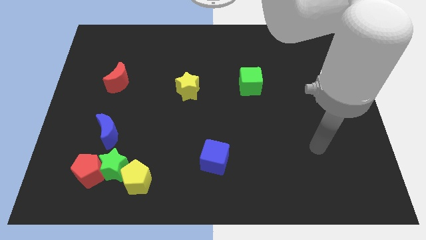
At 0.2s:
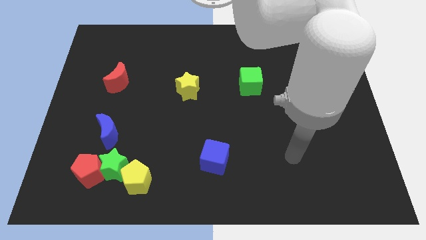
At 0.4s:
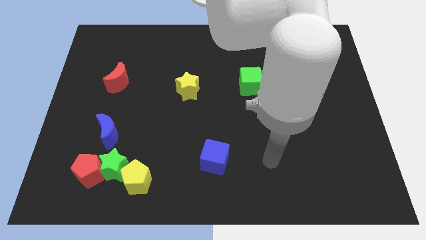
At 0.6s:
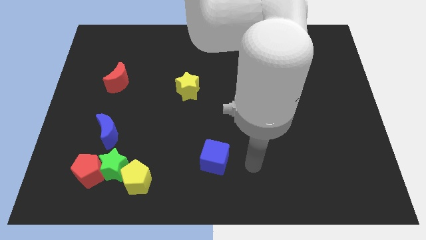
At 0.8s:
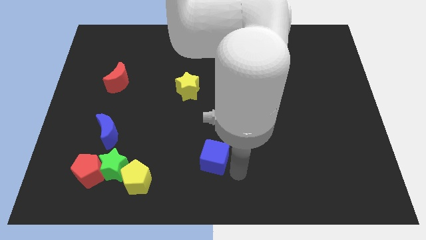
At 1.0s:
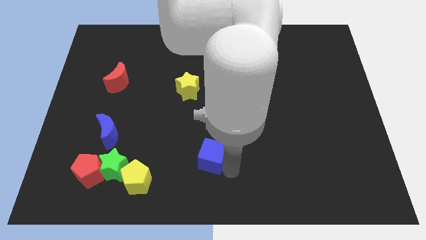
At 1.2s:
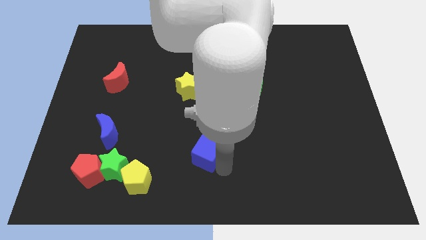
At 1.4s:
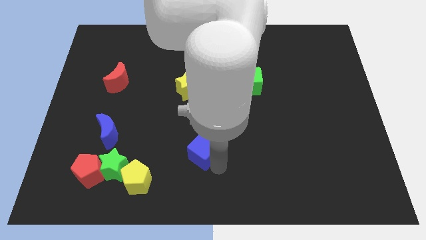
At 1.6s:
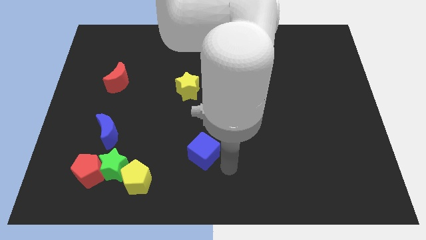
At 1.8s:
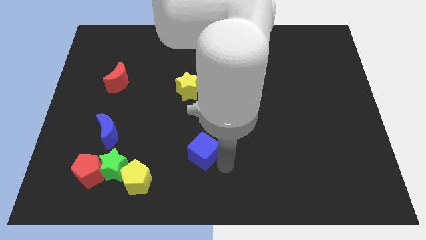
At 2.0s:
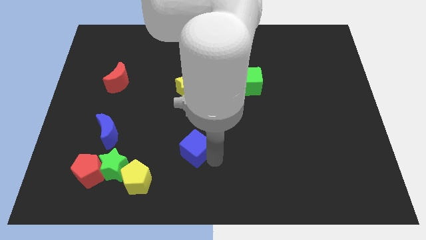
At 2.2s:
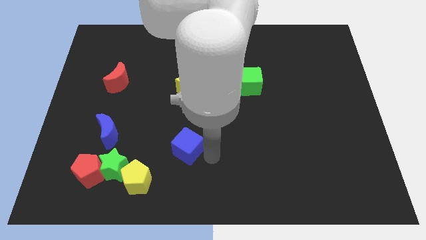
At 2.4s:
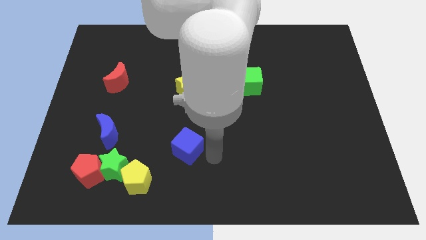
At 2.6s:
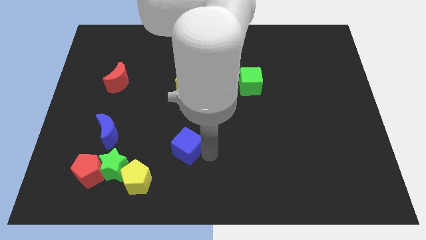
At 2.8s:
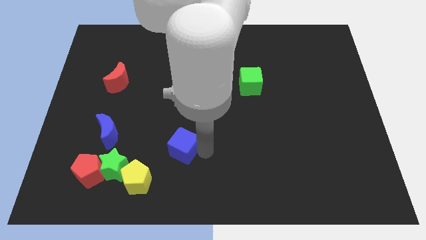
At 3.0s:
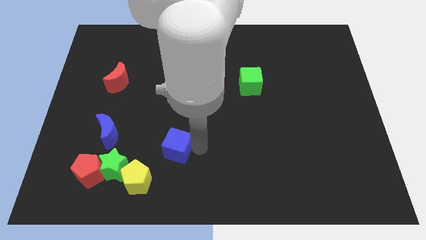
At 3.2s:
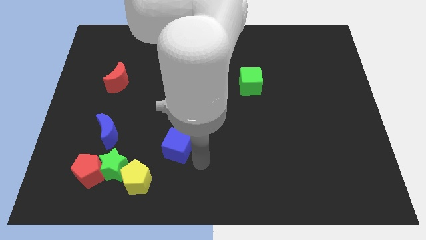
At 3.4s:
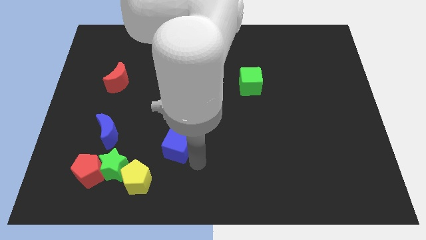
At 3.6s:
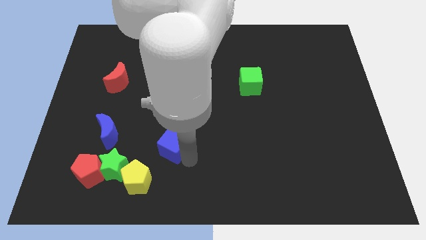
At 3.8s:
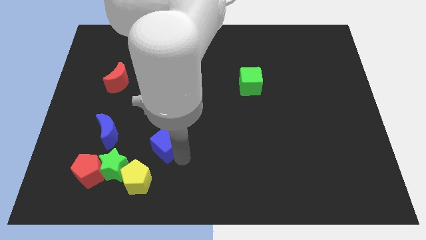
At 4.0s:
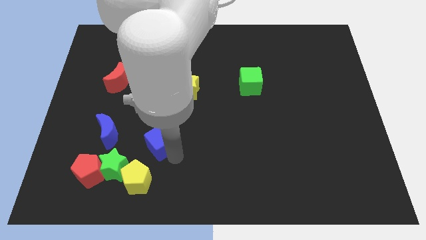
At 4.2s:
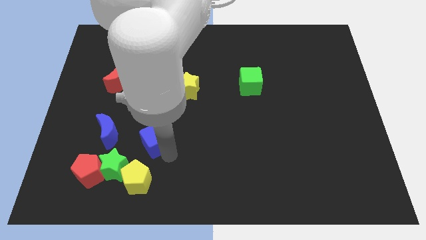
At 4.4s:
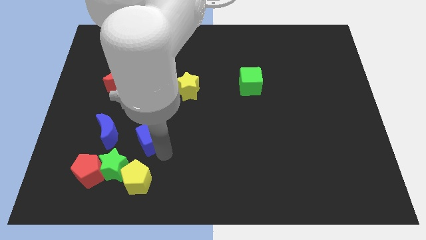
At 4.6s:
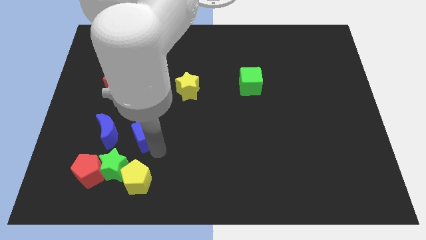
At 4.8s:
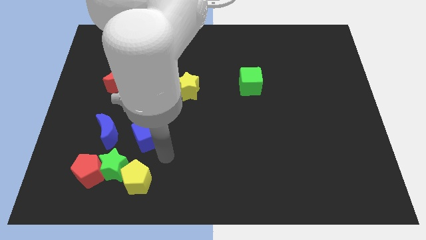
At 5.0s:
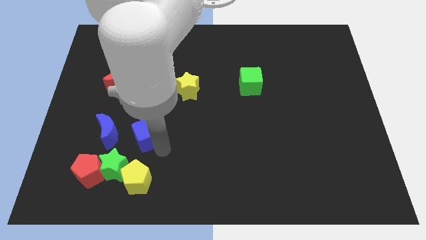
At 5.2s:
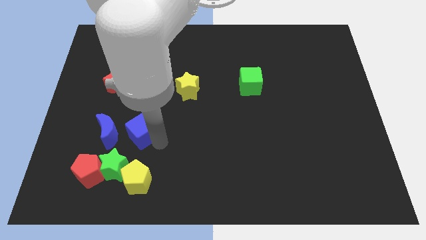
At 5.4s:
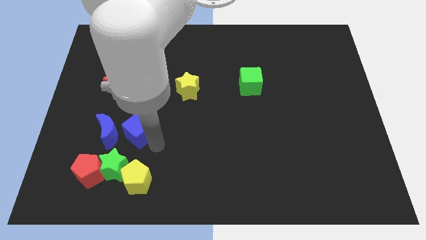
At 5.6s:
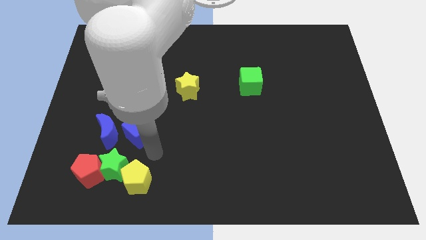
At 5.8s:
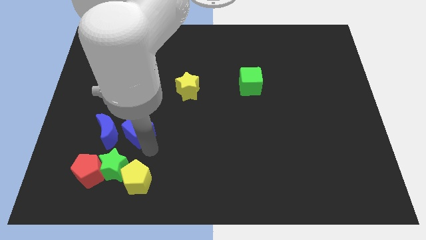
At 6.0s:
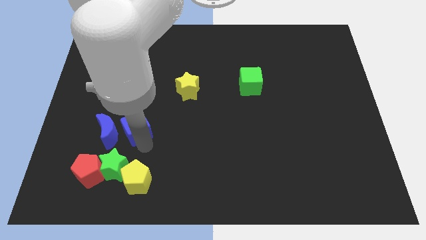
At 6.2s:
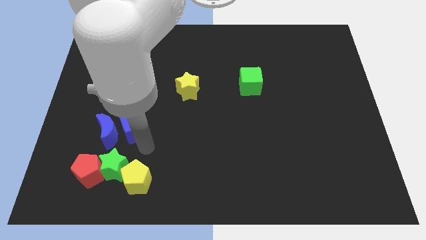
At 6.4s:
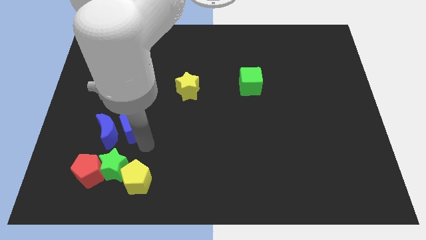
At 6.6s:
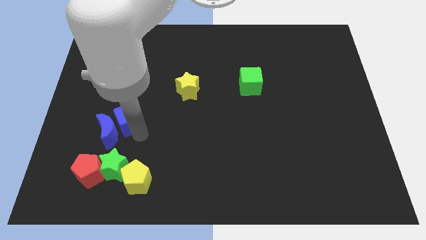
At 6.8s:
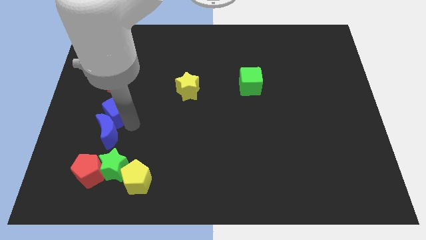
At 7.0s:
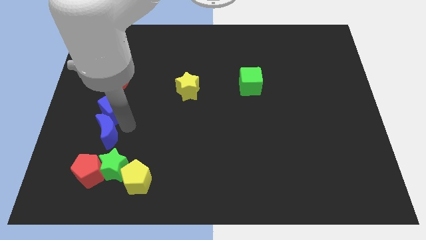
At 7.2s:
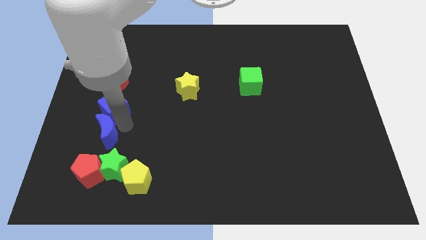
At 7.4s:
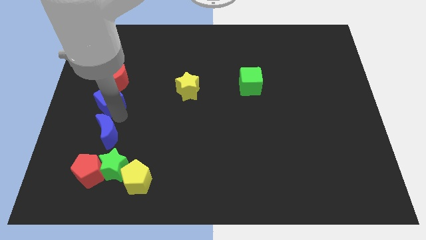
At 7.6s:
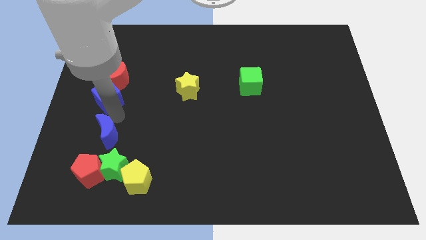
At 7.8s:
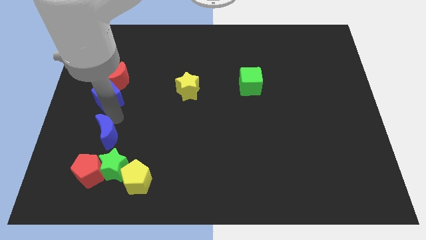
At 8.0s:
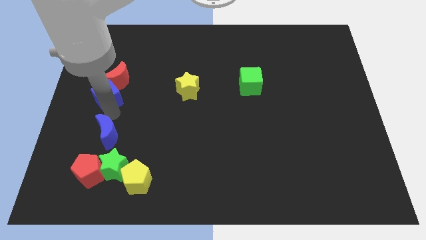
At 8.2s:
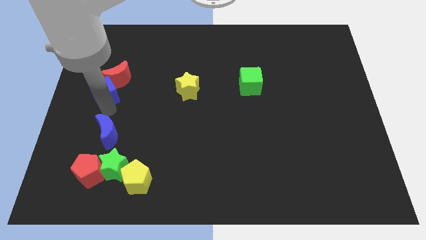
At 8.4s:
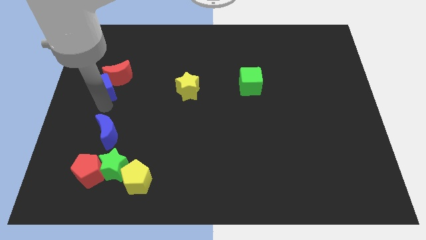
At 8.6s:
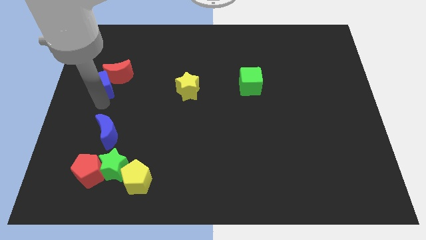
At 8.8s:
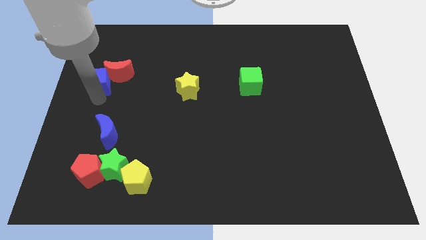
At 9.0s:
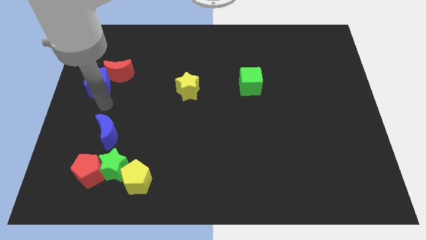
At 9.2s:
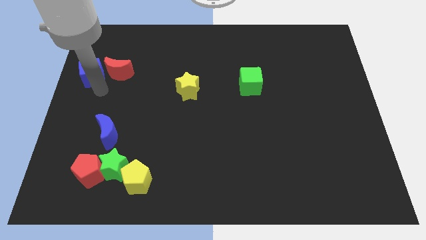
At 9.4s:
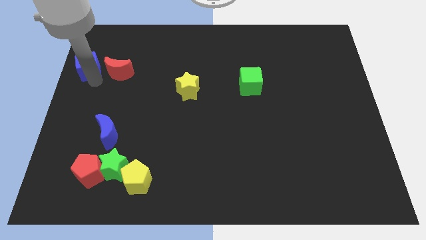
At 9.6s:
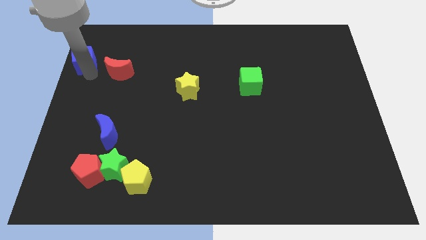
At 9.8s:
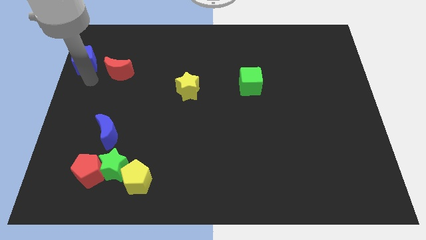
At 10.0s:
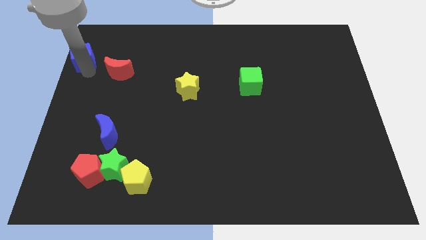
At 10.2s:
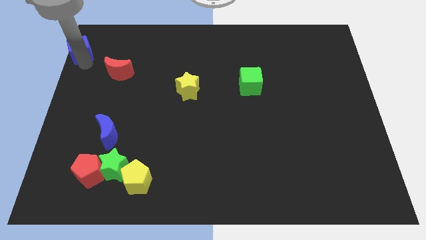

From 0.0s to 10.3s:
put the blue cube to the top left of the board

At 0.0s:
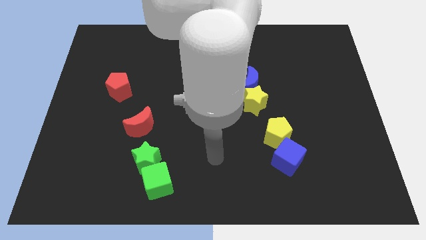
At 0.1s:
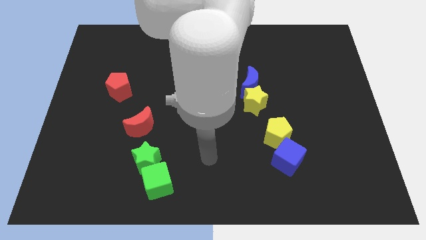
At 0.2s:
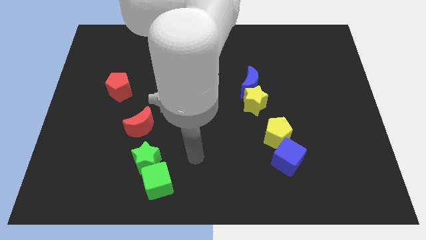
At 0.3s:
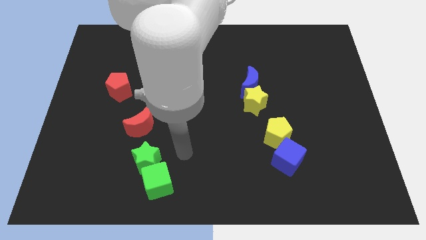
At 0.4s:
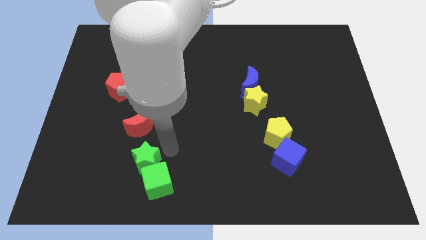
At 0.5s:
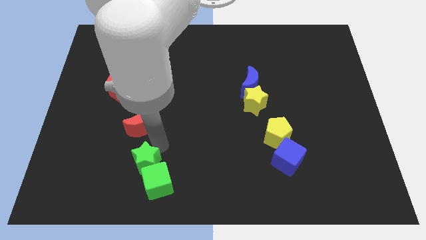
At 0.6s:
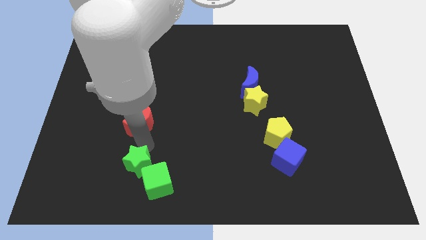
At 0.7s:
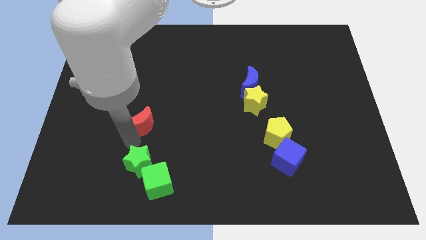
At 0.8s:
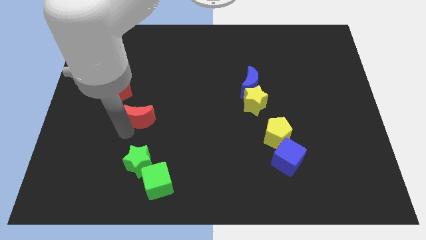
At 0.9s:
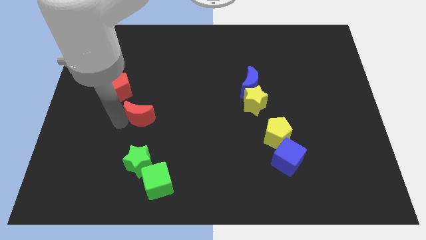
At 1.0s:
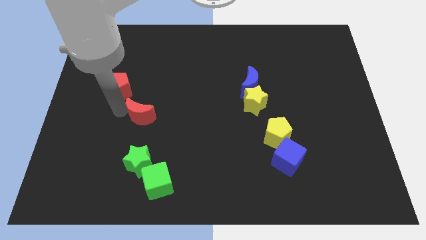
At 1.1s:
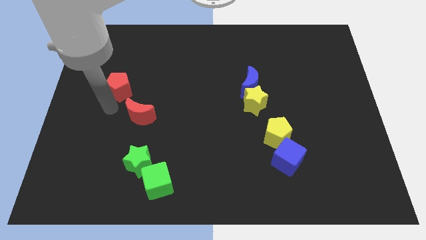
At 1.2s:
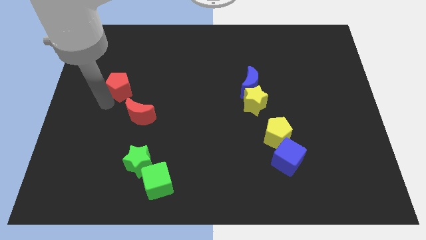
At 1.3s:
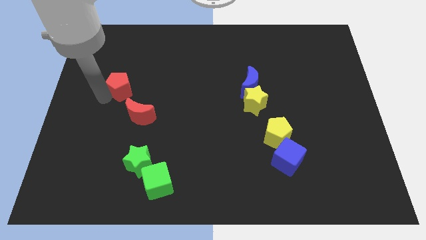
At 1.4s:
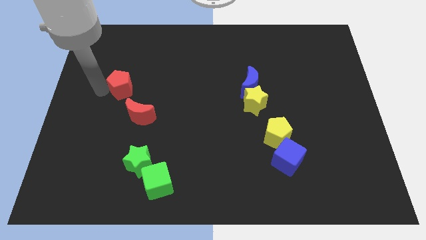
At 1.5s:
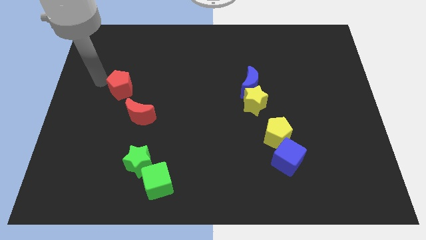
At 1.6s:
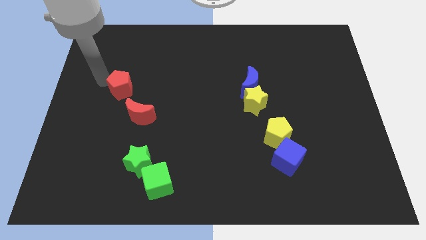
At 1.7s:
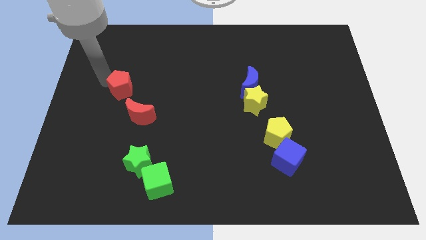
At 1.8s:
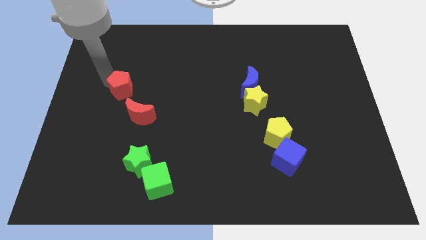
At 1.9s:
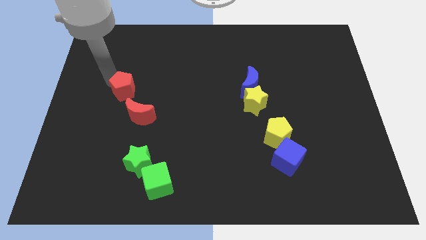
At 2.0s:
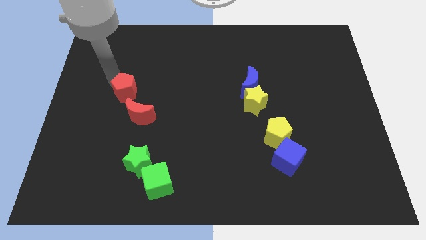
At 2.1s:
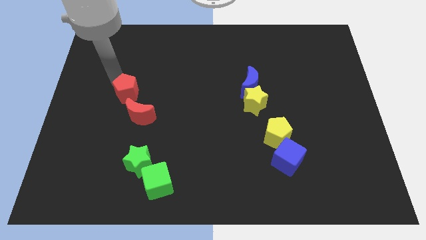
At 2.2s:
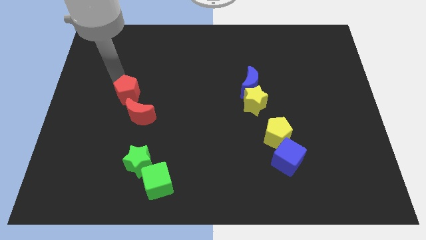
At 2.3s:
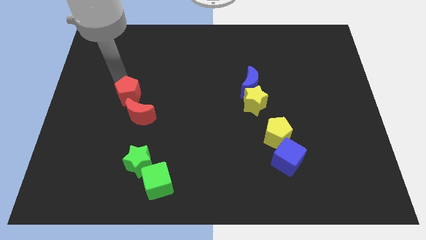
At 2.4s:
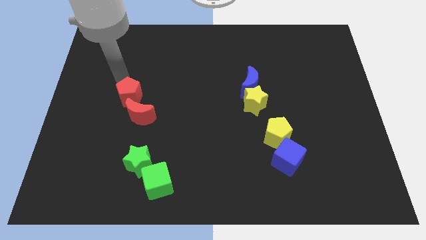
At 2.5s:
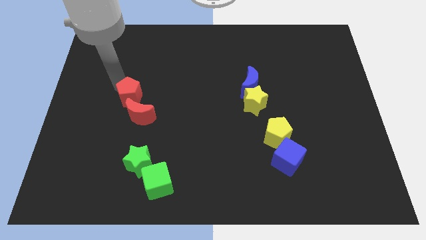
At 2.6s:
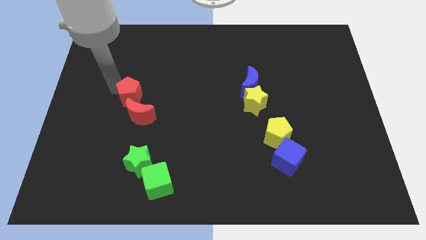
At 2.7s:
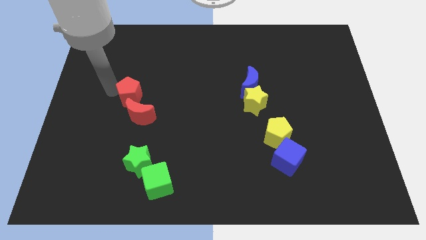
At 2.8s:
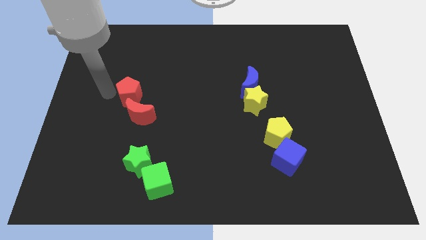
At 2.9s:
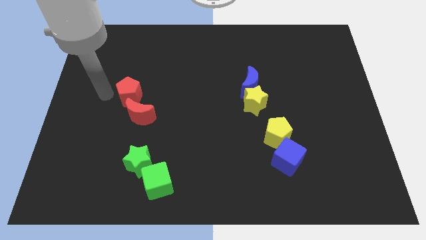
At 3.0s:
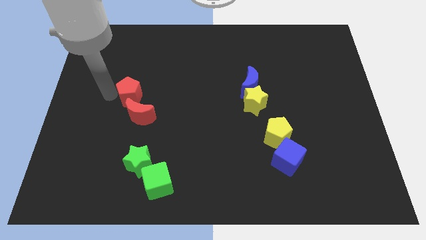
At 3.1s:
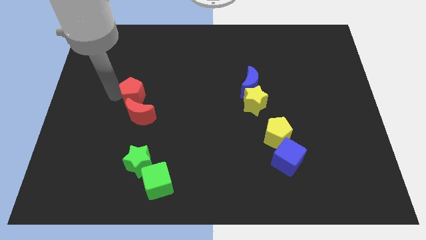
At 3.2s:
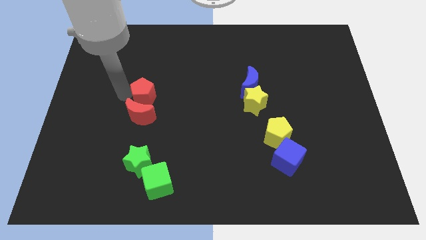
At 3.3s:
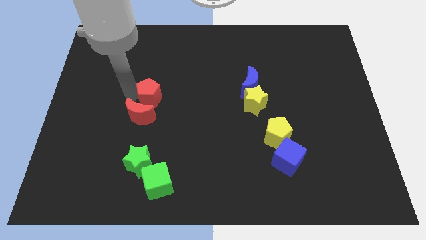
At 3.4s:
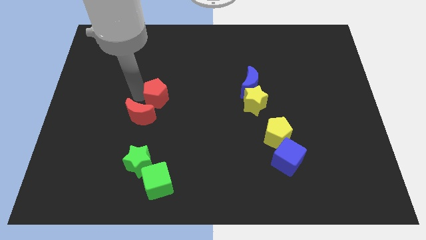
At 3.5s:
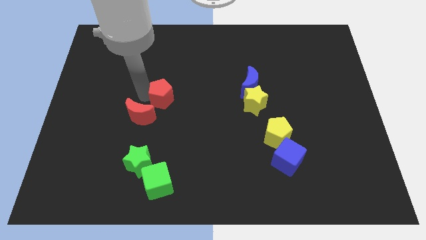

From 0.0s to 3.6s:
push the red pentagon to the middle
